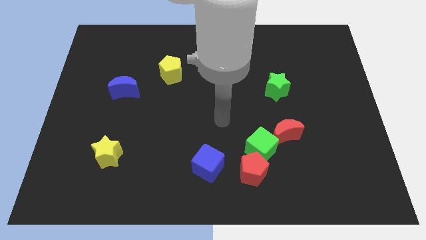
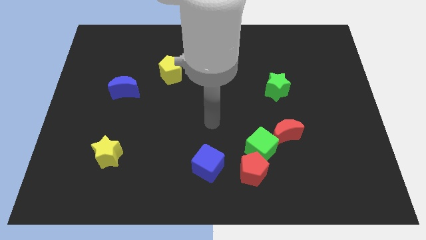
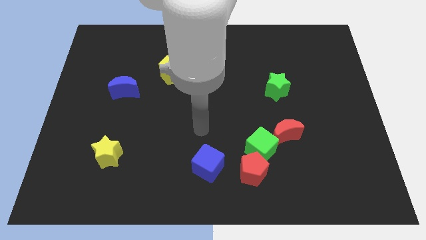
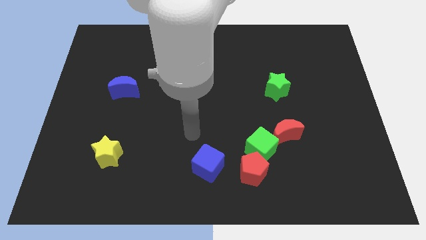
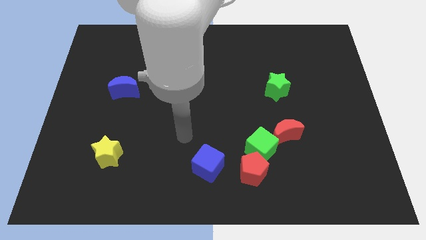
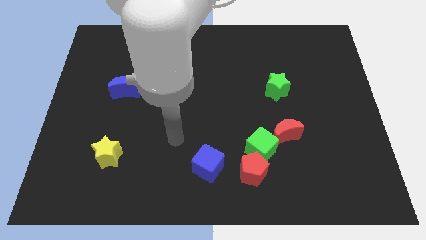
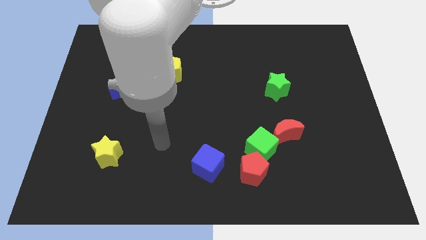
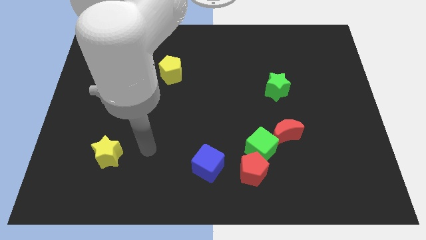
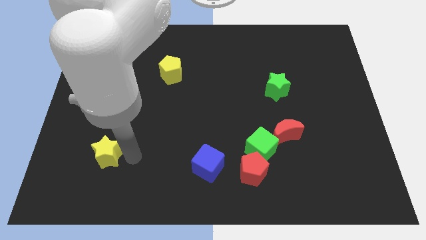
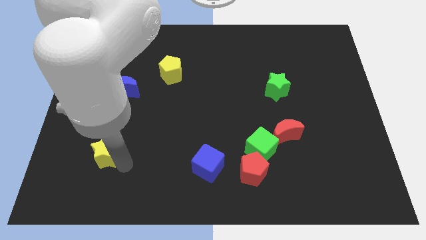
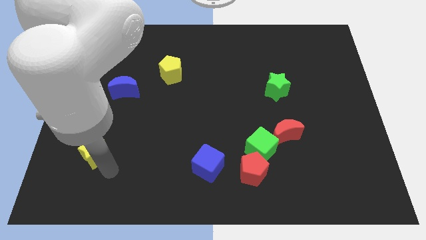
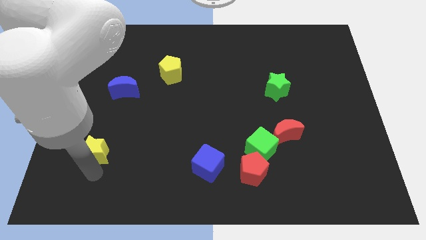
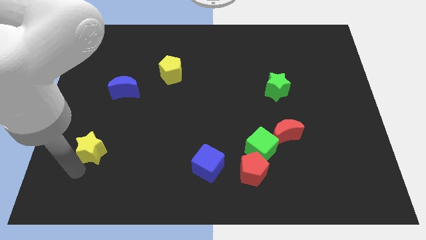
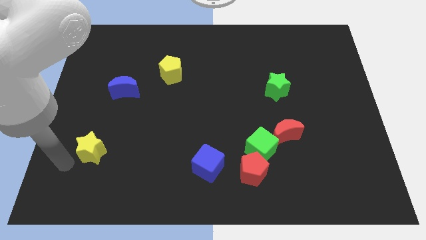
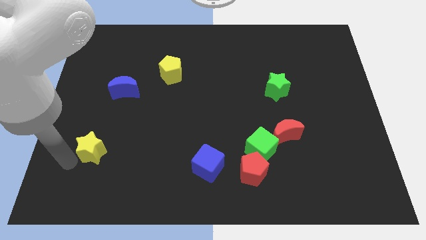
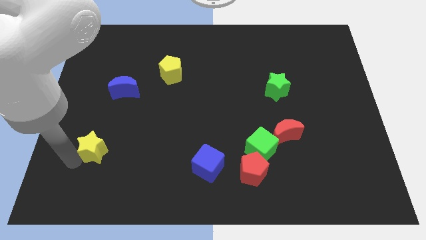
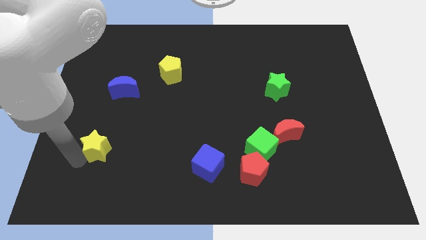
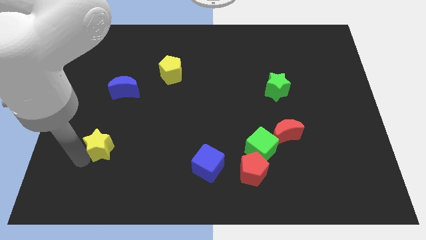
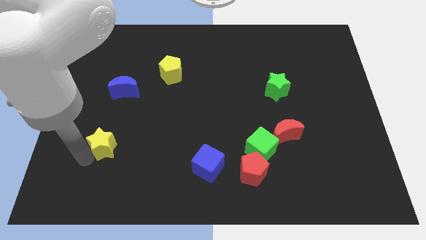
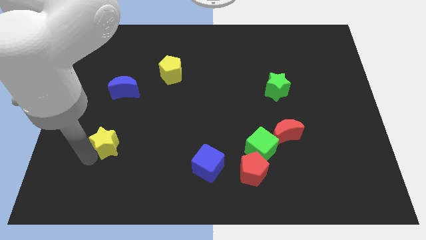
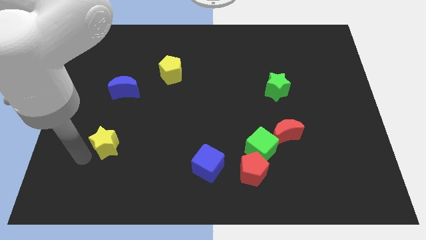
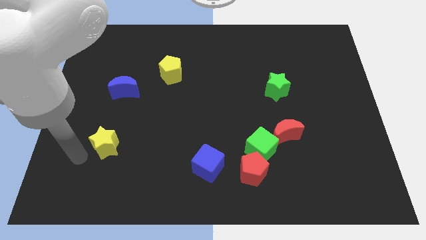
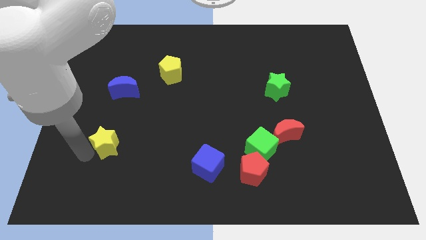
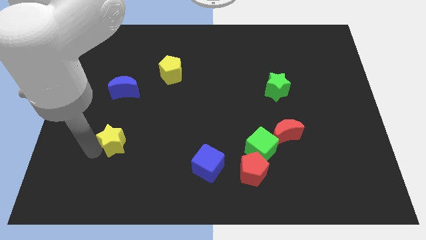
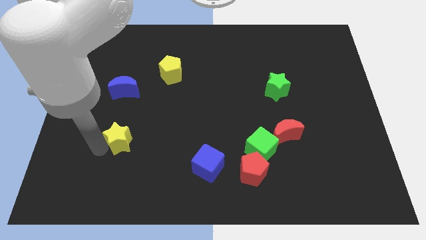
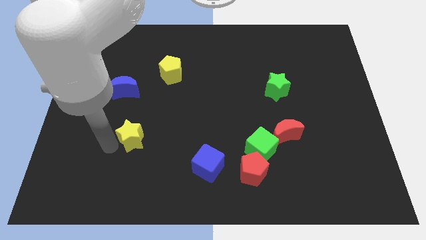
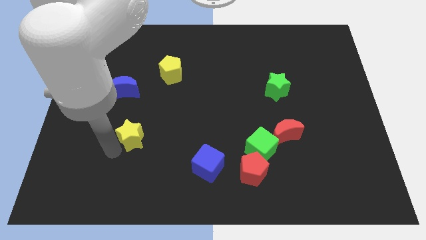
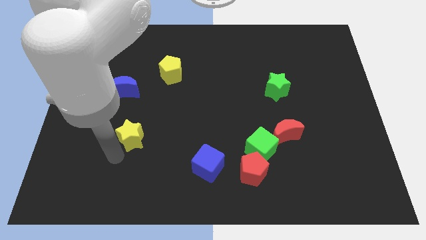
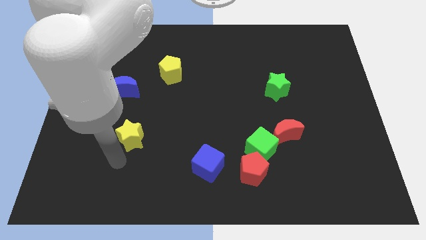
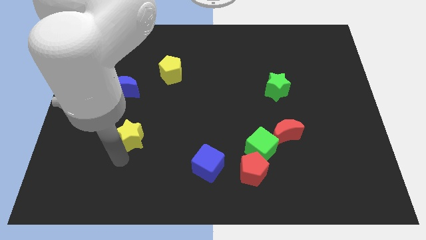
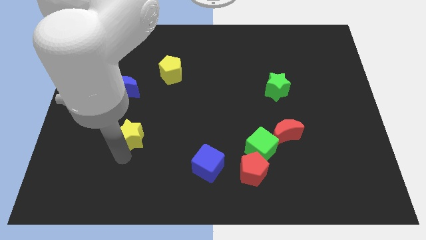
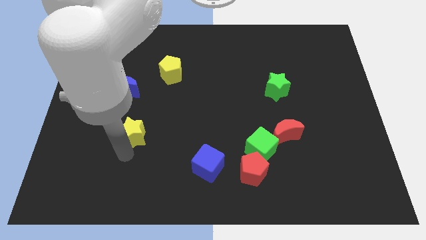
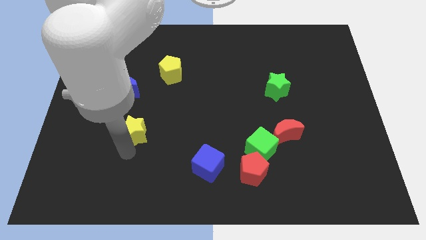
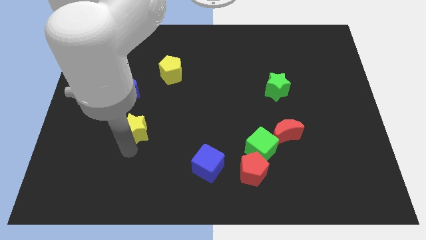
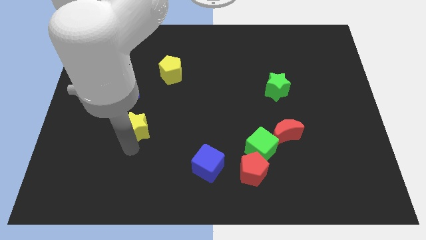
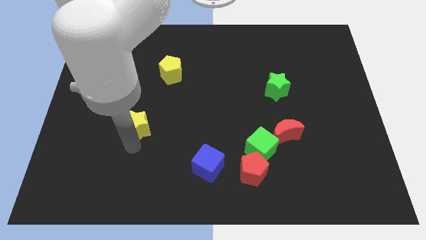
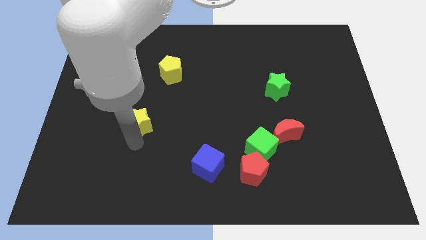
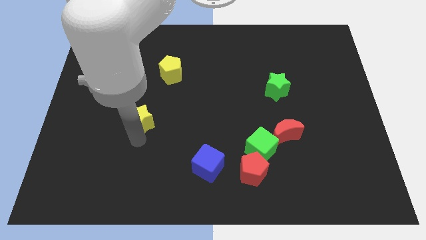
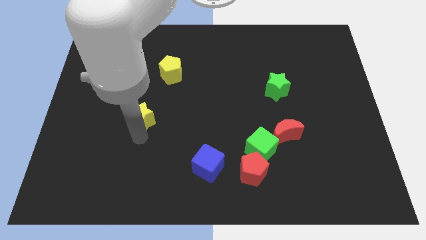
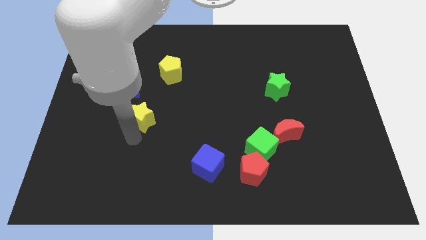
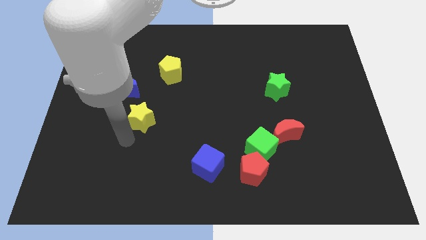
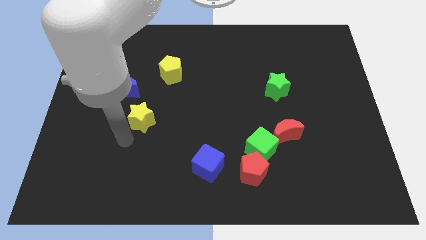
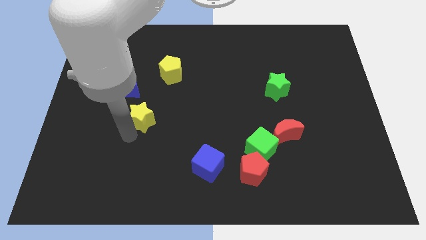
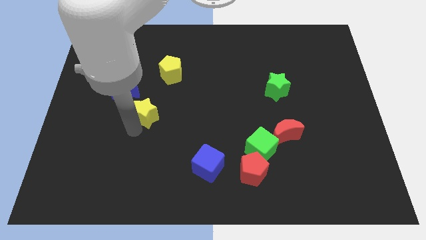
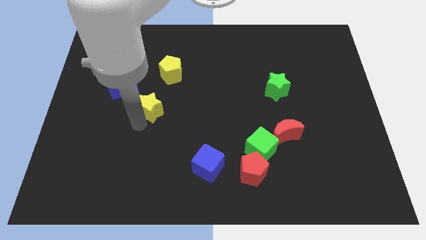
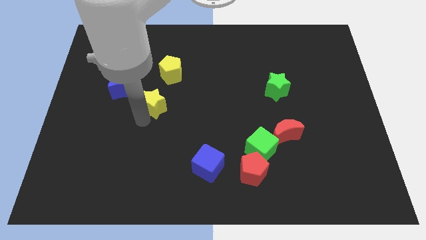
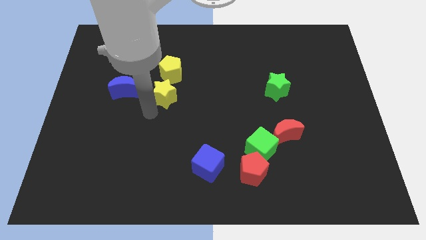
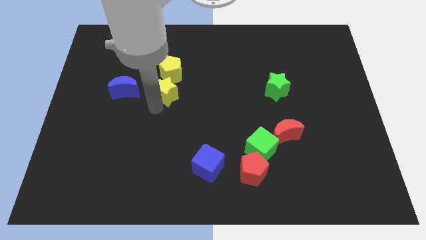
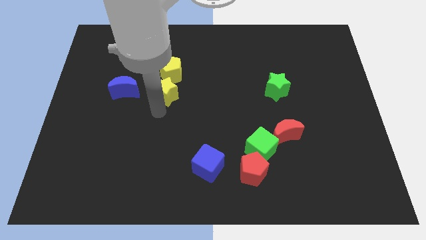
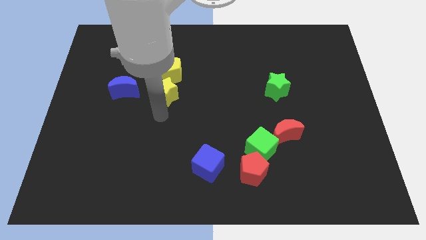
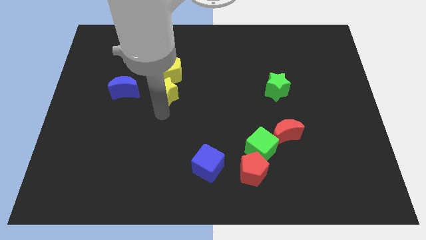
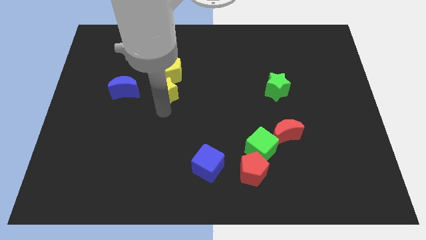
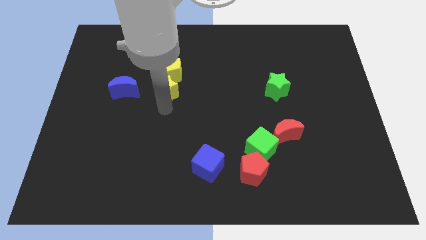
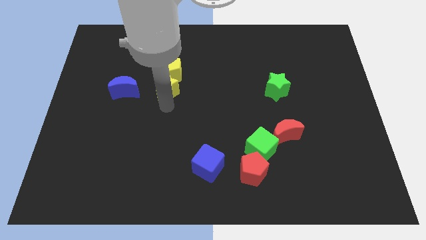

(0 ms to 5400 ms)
slide the yellow star close to the yellow pentagon

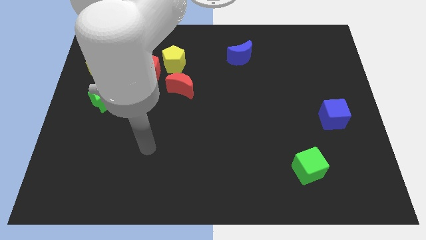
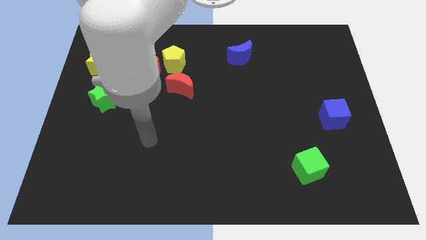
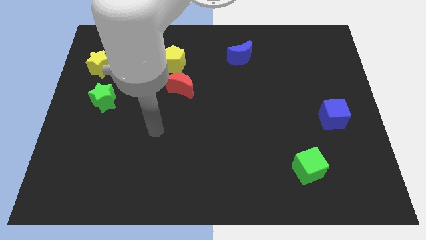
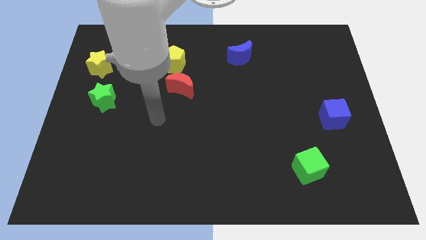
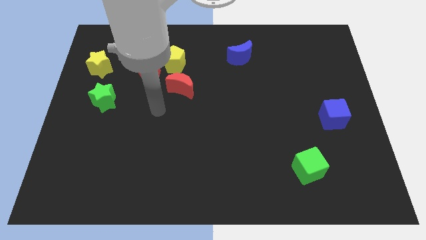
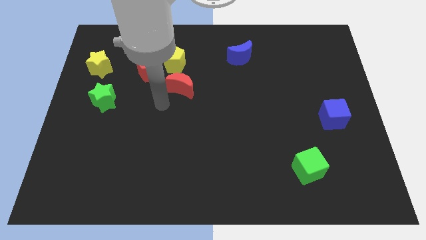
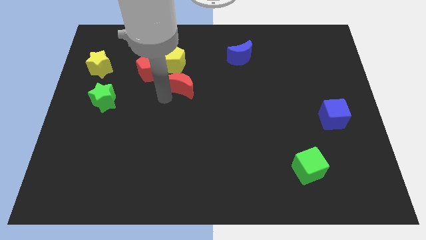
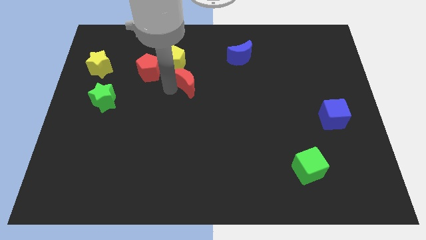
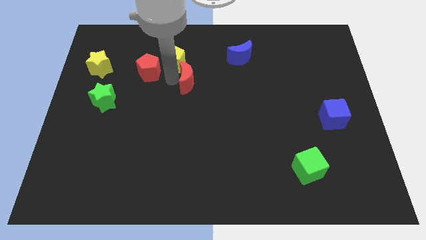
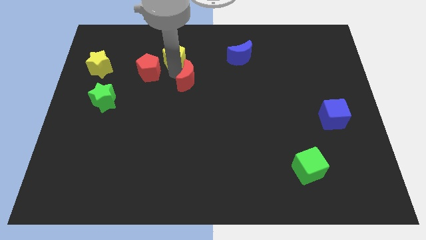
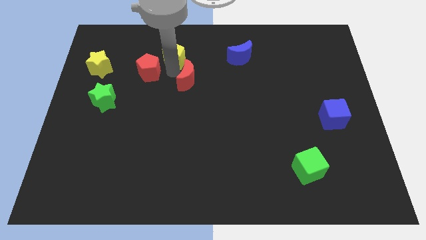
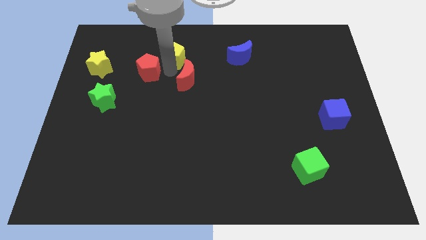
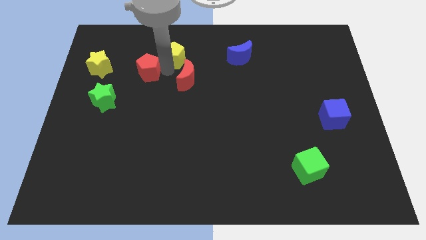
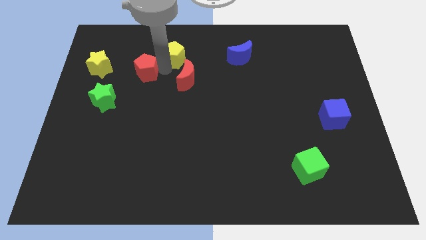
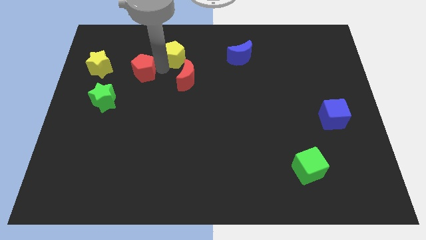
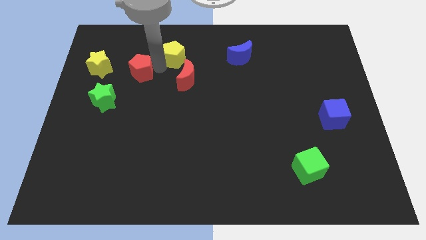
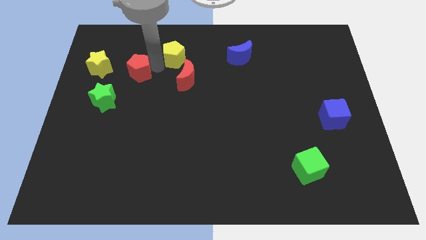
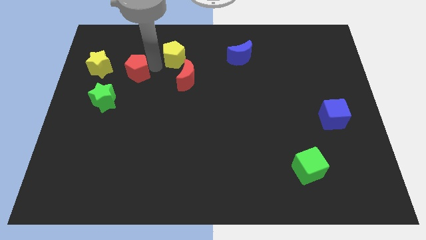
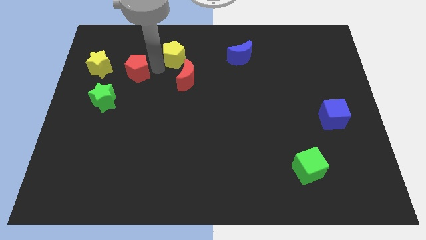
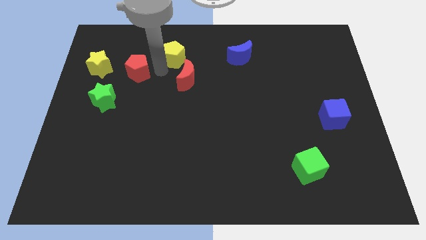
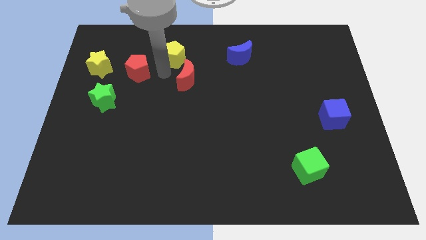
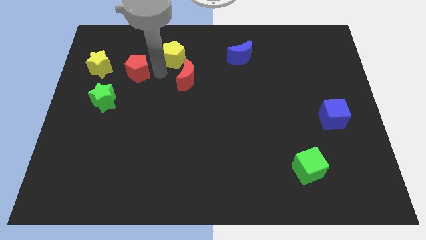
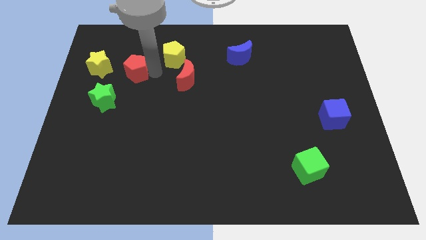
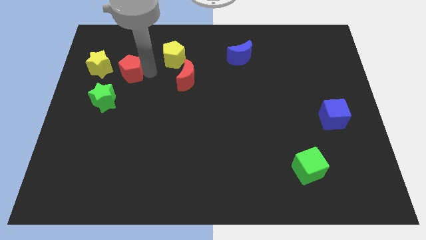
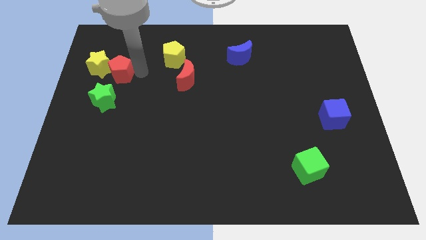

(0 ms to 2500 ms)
move the red pentagon to the yellow star
